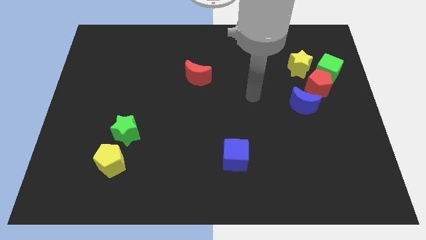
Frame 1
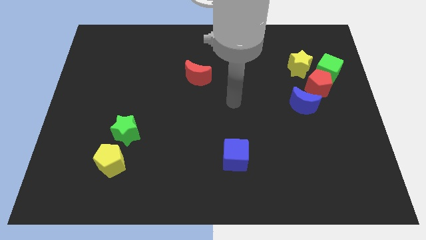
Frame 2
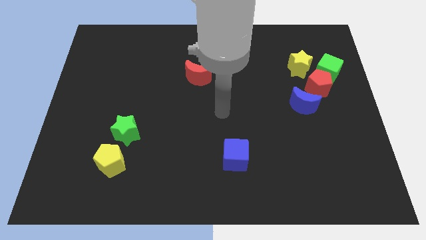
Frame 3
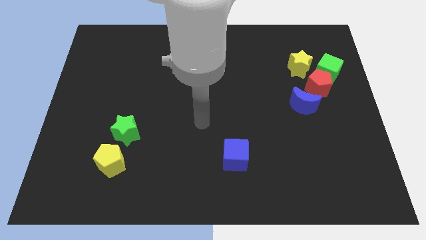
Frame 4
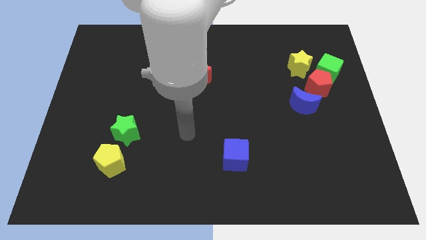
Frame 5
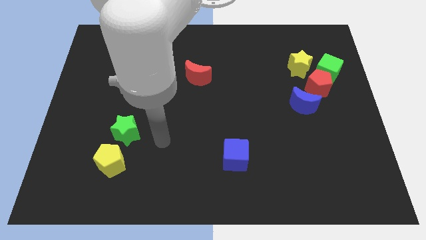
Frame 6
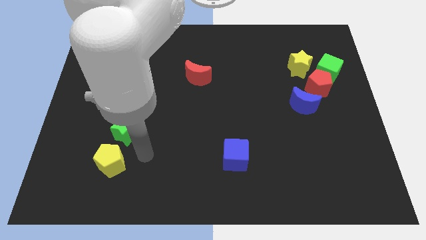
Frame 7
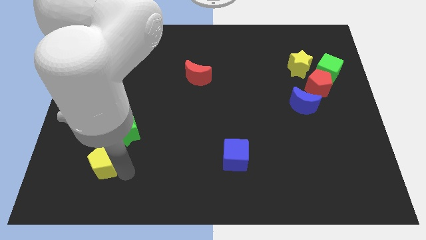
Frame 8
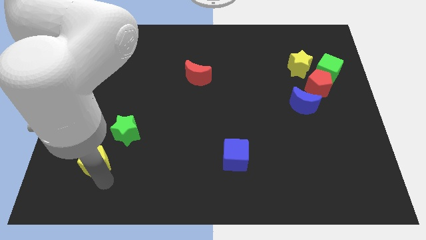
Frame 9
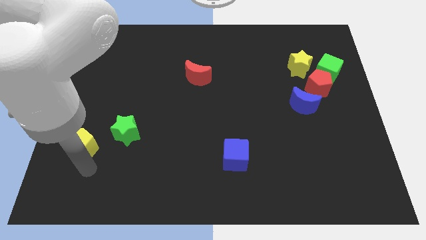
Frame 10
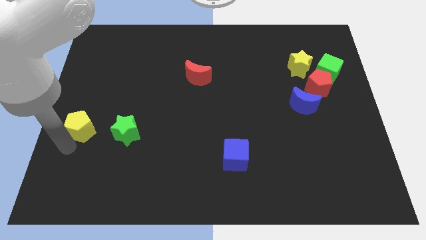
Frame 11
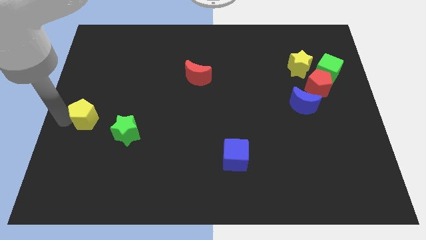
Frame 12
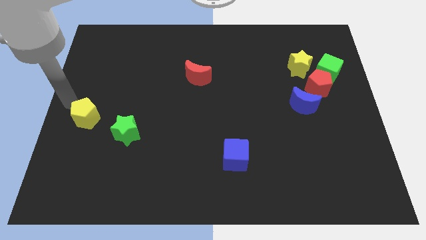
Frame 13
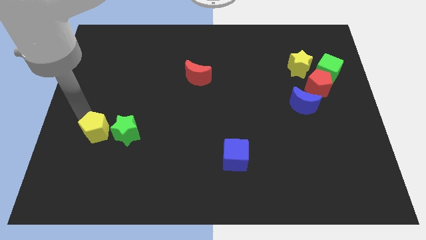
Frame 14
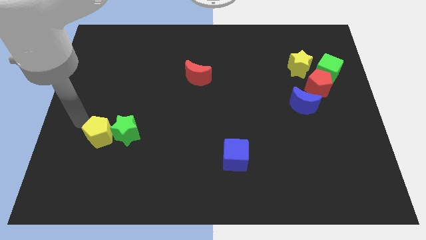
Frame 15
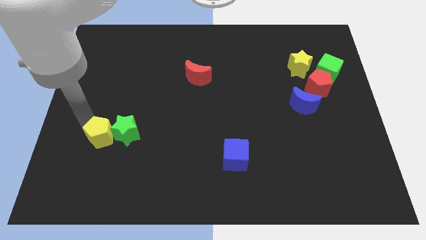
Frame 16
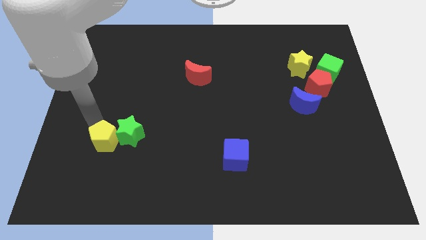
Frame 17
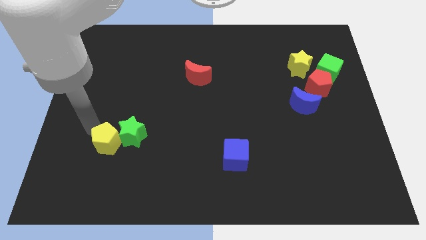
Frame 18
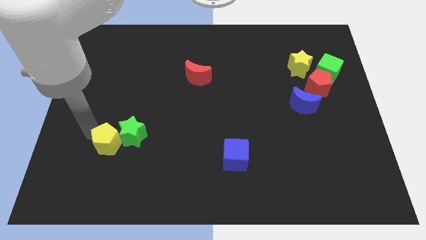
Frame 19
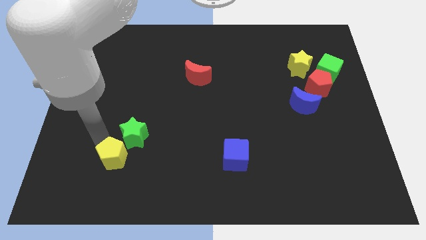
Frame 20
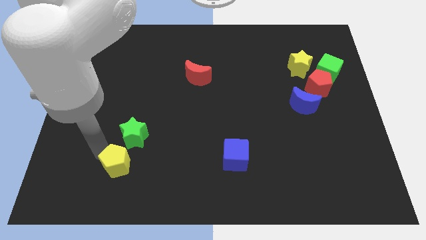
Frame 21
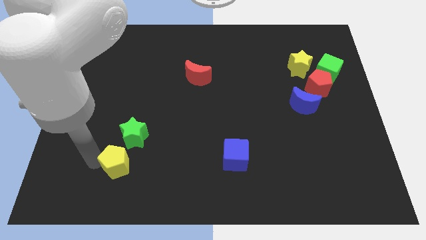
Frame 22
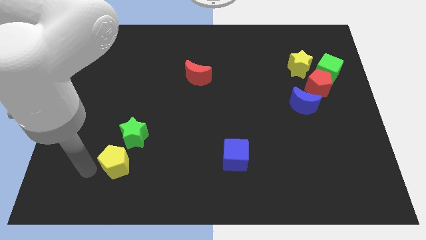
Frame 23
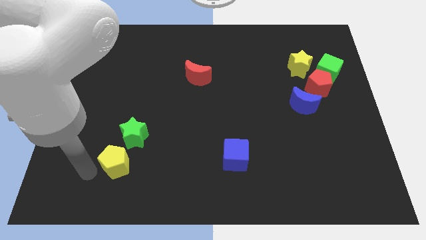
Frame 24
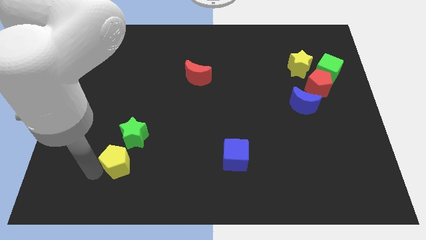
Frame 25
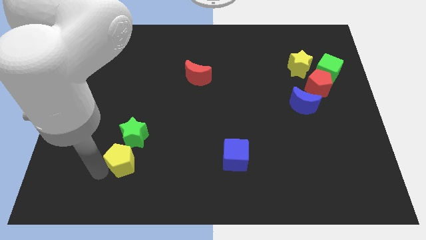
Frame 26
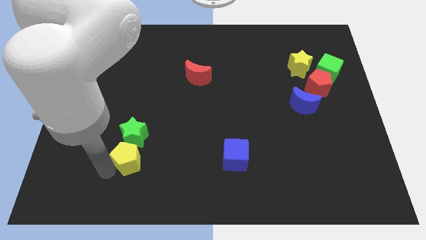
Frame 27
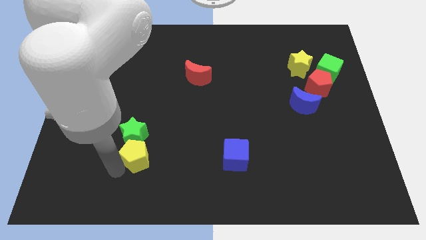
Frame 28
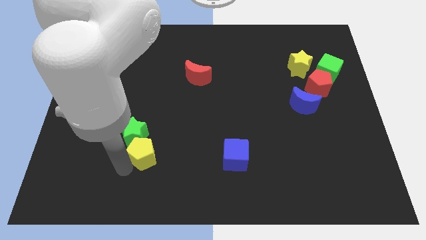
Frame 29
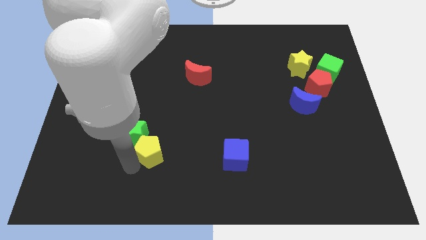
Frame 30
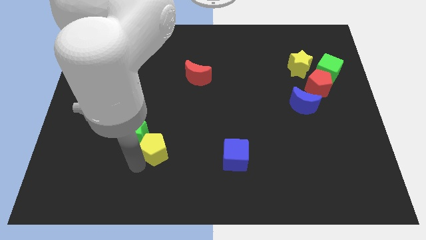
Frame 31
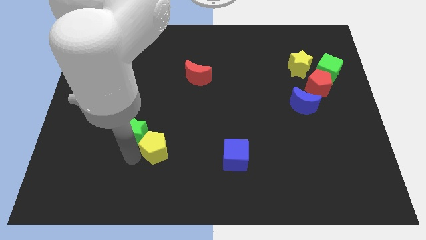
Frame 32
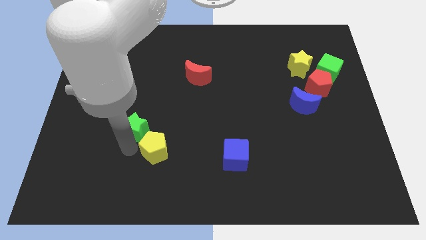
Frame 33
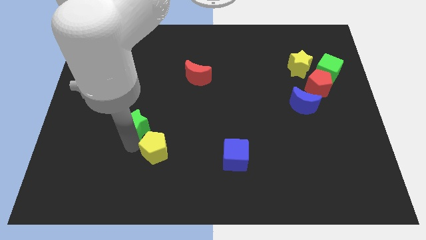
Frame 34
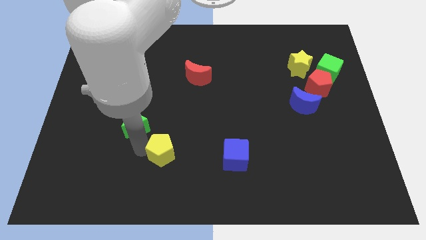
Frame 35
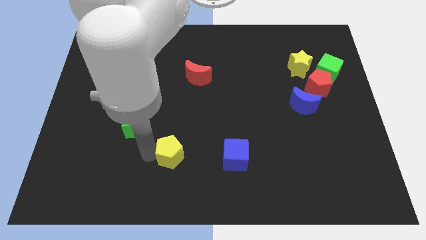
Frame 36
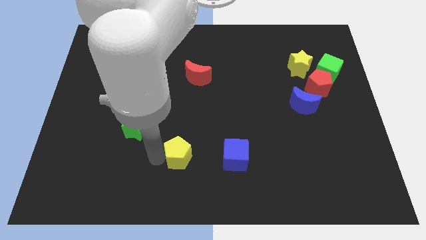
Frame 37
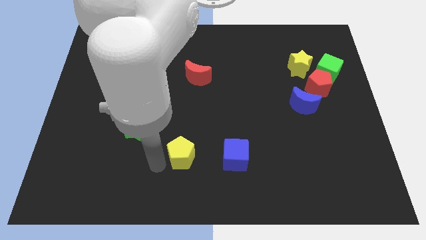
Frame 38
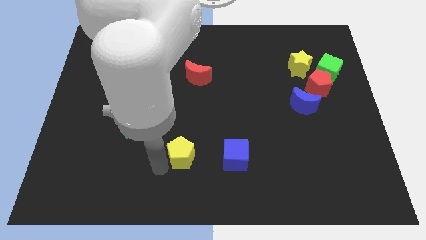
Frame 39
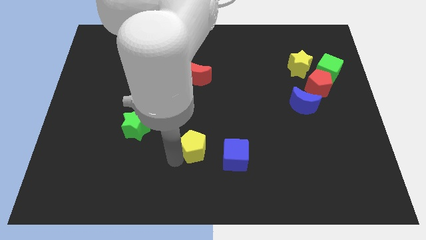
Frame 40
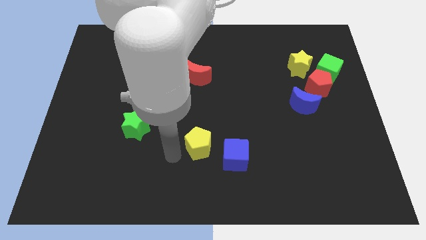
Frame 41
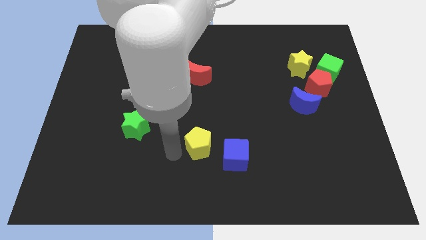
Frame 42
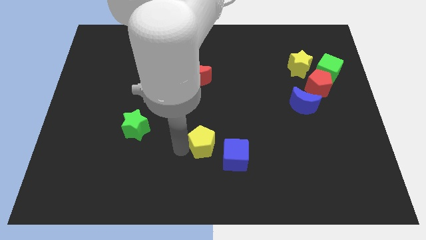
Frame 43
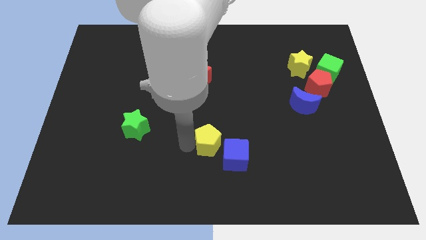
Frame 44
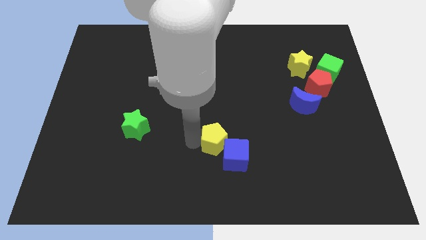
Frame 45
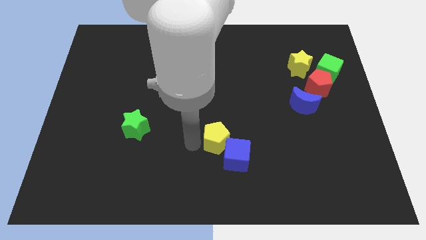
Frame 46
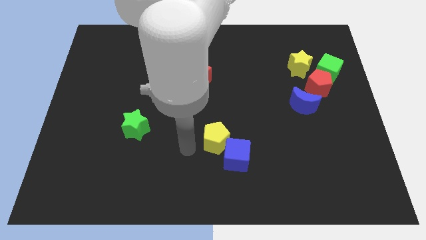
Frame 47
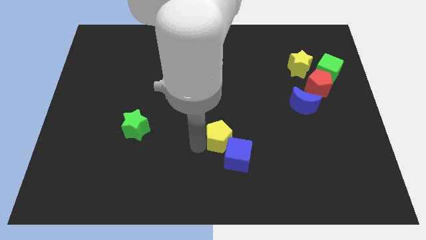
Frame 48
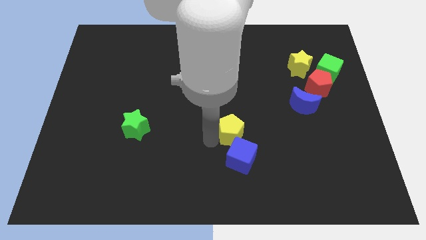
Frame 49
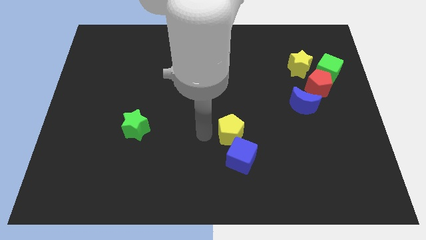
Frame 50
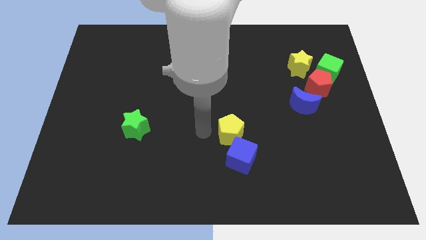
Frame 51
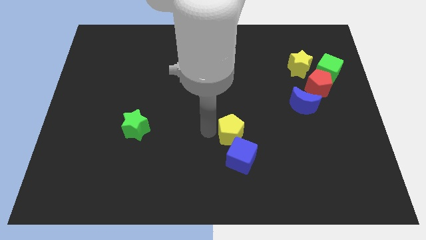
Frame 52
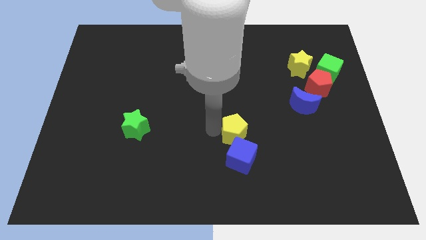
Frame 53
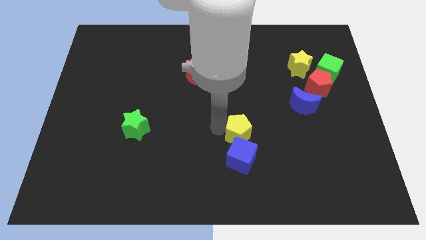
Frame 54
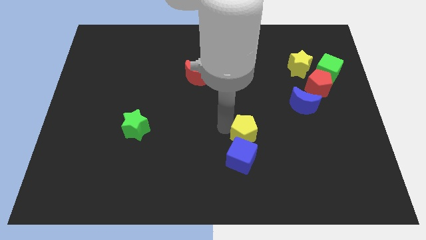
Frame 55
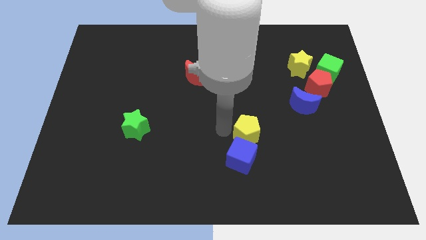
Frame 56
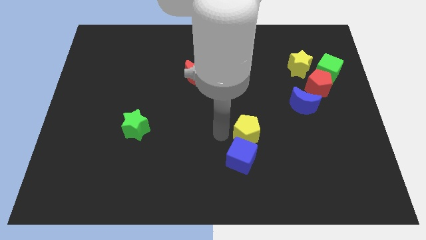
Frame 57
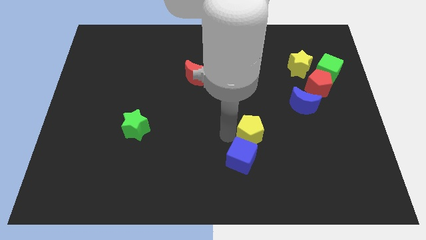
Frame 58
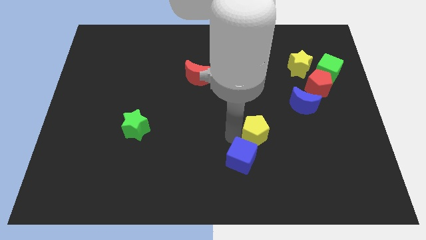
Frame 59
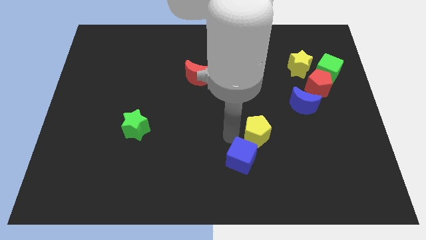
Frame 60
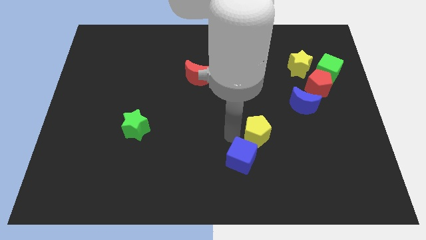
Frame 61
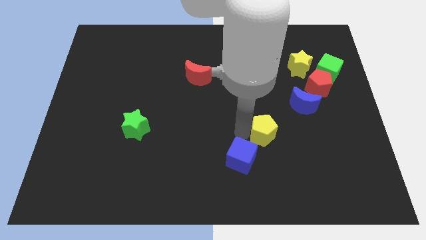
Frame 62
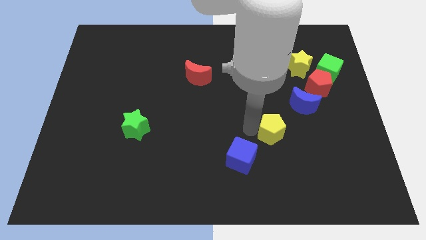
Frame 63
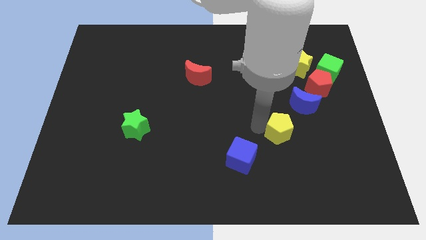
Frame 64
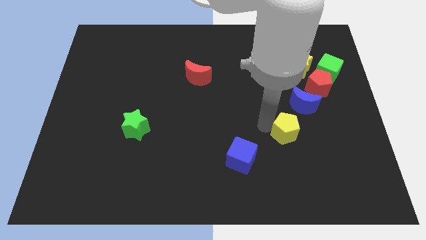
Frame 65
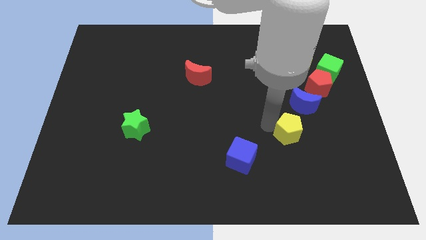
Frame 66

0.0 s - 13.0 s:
slide the yellow pentagon below the blue moon

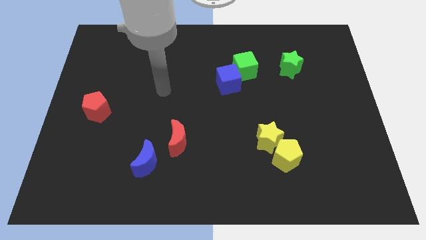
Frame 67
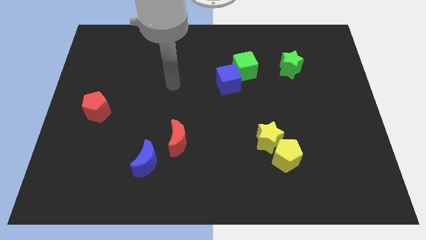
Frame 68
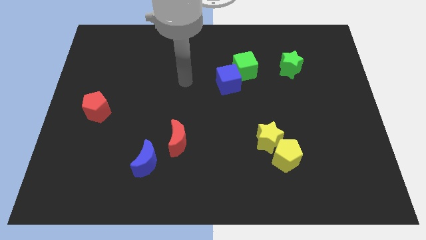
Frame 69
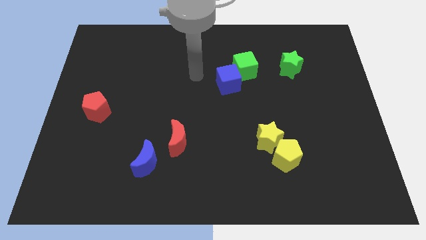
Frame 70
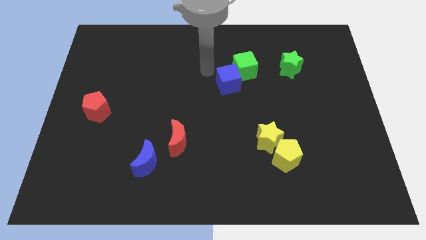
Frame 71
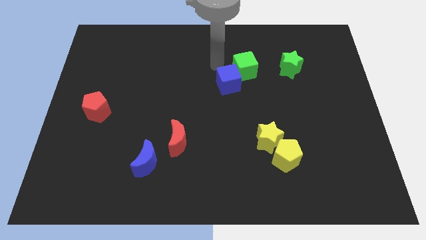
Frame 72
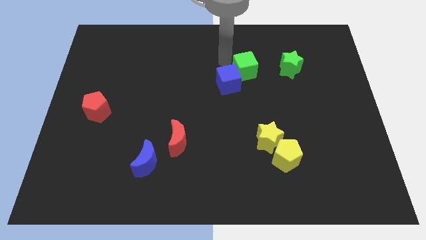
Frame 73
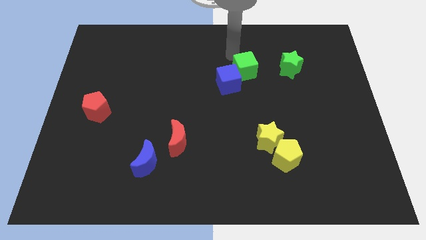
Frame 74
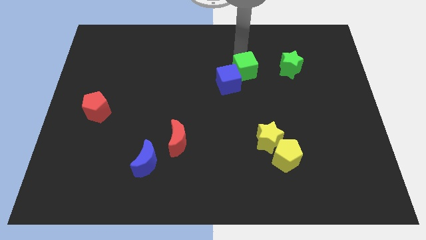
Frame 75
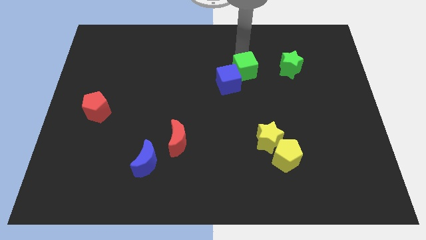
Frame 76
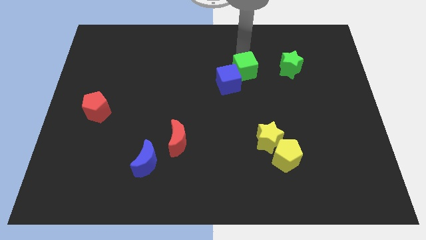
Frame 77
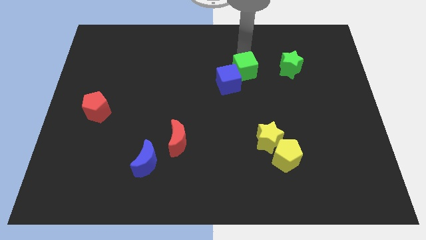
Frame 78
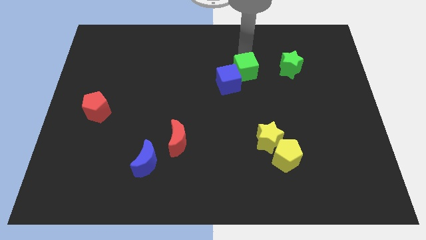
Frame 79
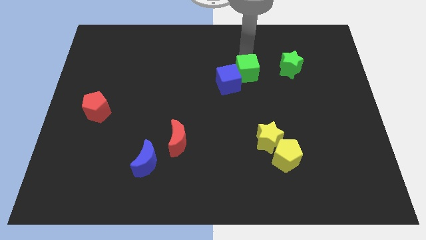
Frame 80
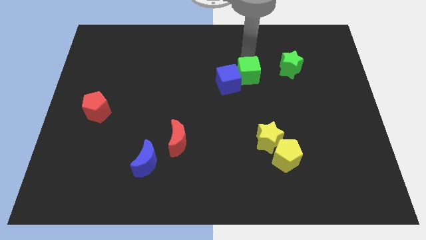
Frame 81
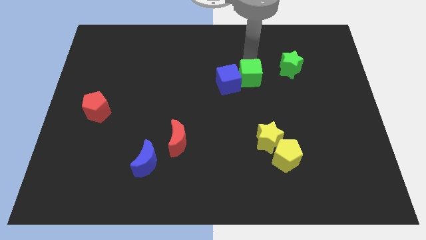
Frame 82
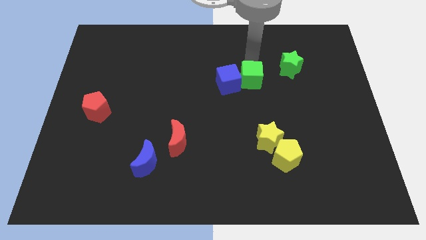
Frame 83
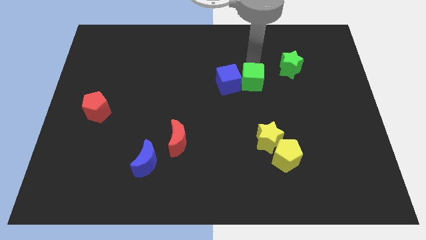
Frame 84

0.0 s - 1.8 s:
move the green cube to the bottom right of the blue cube
